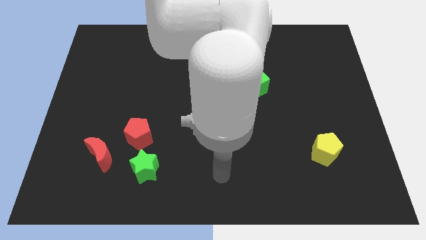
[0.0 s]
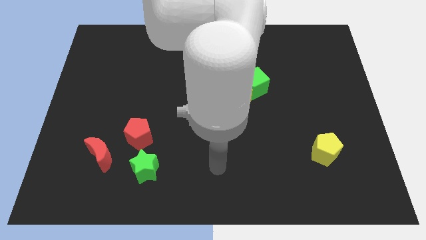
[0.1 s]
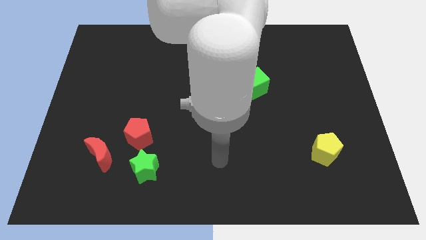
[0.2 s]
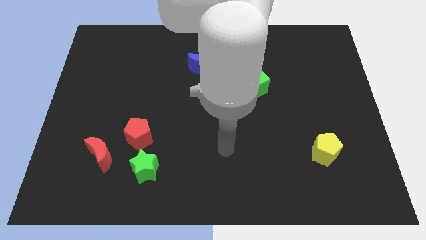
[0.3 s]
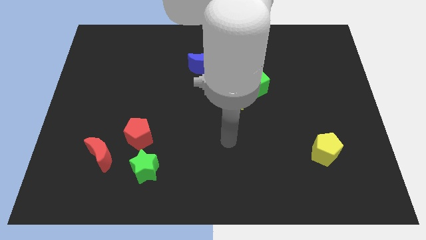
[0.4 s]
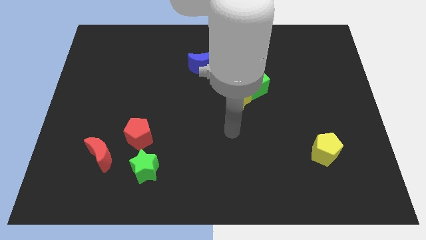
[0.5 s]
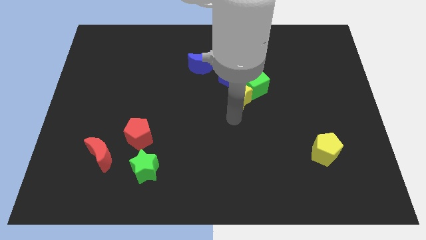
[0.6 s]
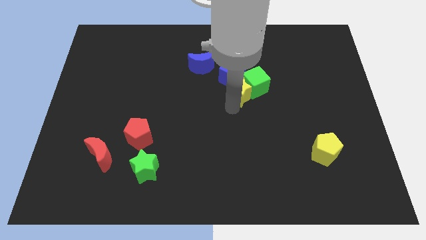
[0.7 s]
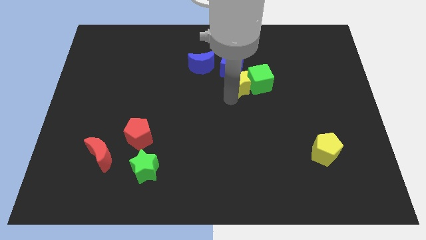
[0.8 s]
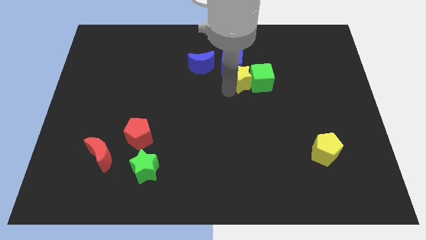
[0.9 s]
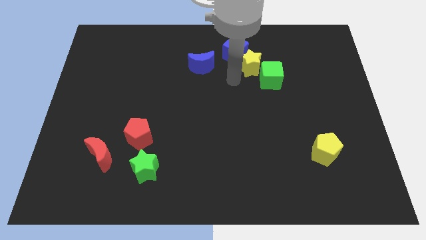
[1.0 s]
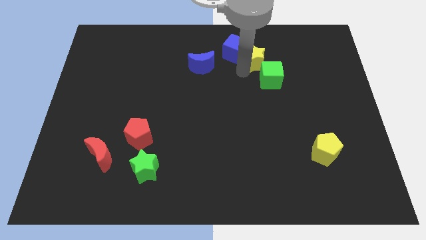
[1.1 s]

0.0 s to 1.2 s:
move the green cube away from the yellow star and blue cube

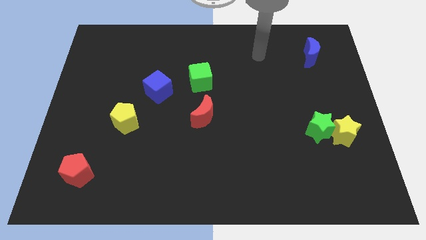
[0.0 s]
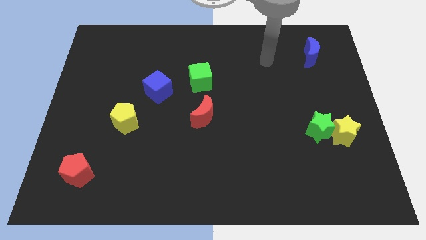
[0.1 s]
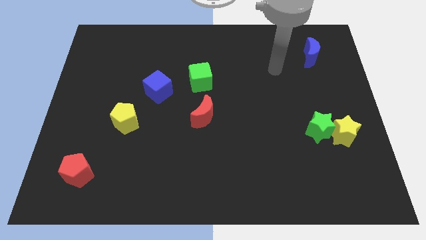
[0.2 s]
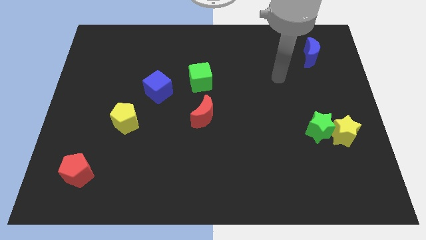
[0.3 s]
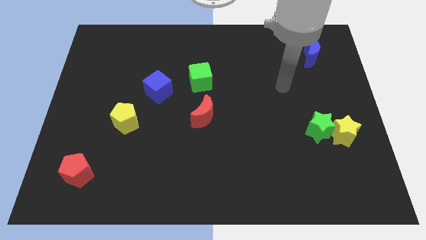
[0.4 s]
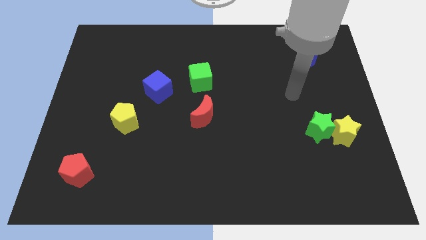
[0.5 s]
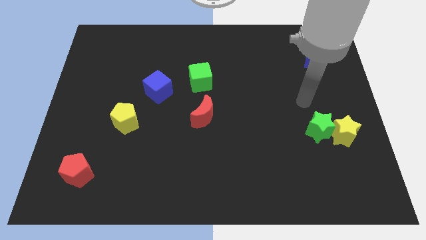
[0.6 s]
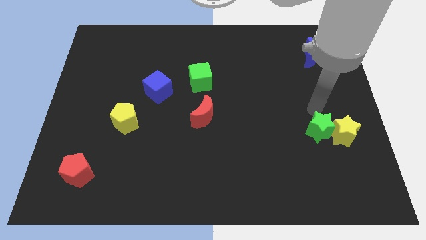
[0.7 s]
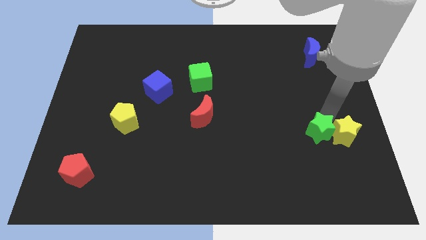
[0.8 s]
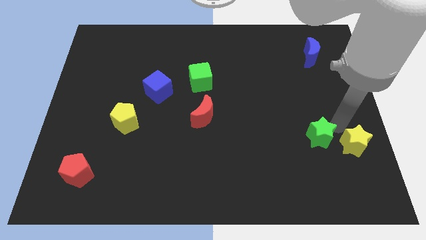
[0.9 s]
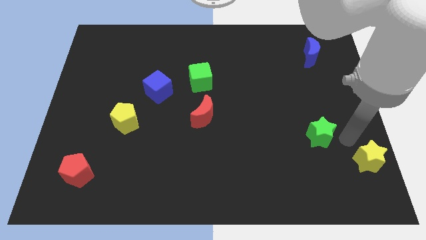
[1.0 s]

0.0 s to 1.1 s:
separate the green star from the yellow star

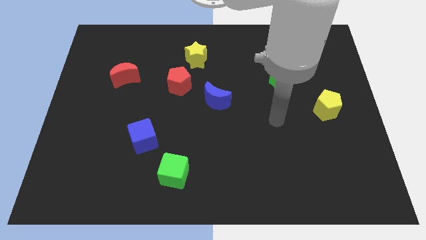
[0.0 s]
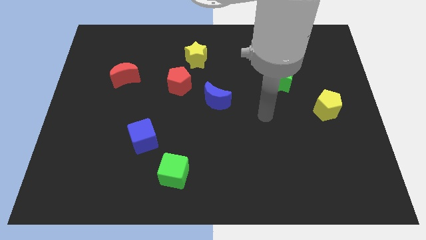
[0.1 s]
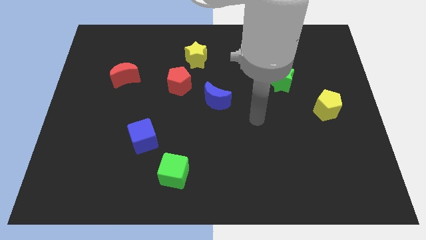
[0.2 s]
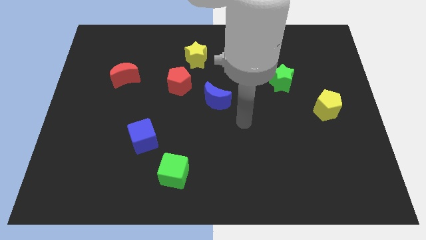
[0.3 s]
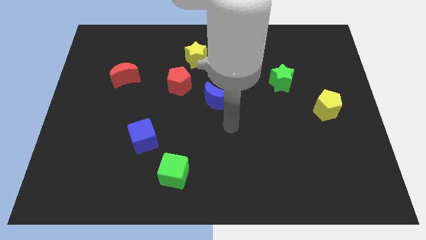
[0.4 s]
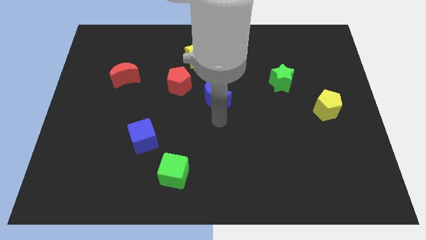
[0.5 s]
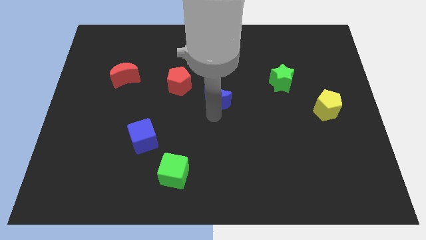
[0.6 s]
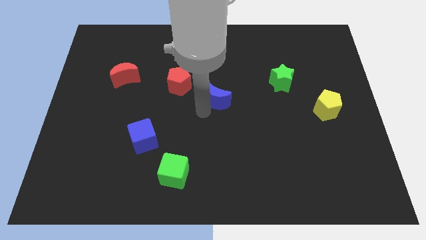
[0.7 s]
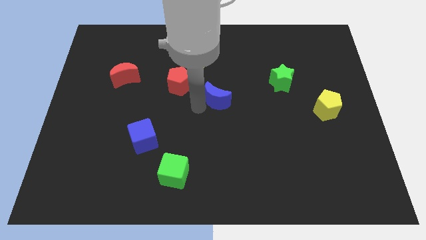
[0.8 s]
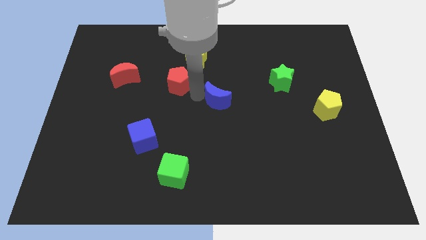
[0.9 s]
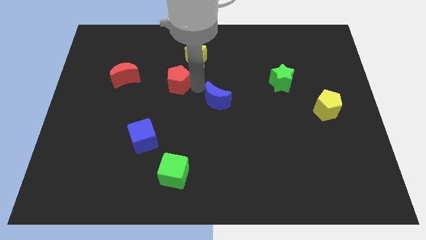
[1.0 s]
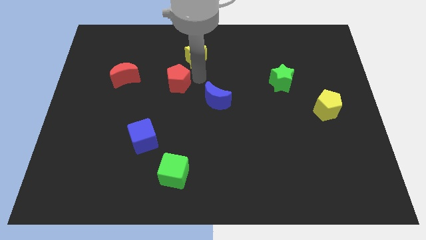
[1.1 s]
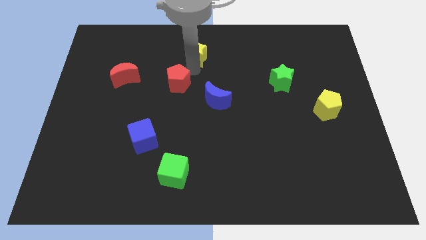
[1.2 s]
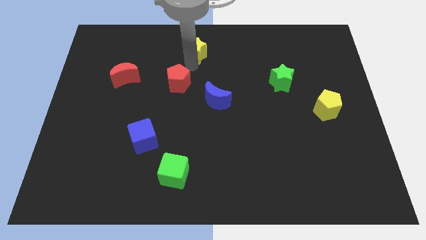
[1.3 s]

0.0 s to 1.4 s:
pull the red pentagon apart from the yellow star

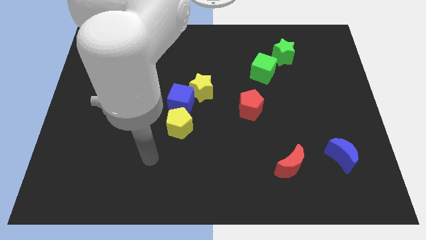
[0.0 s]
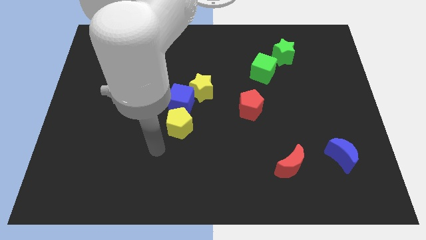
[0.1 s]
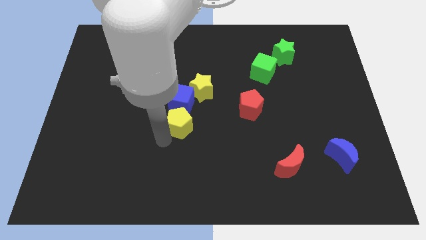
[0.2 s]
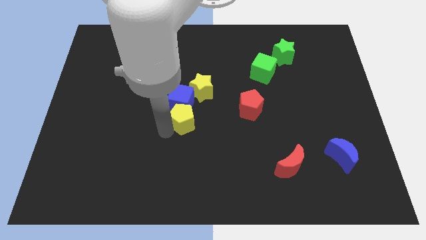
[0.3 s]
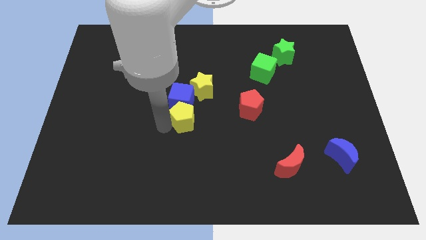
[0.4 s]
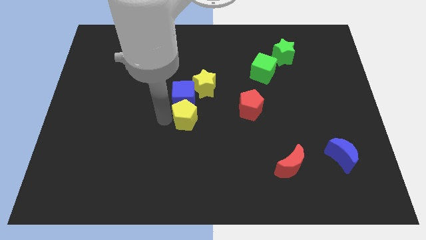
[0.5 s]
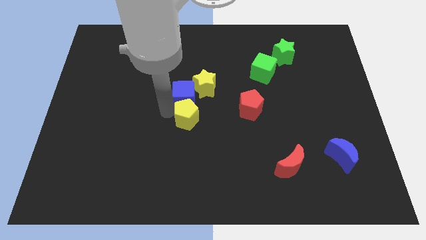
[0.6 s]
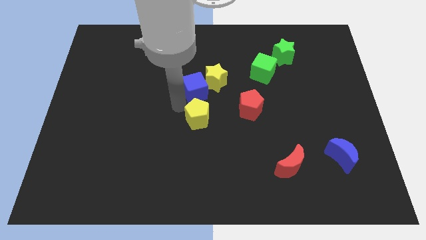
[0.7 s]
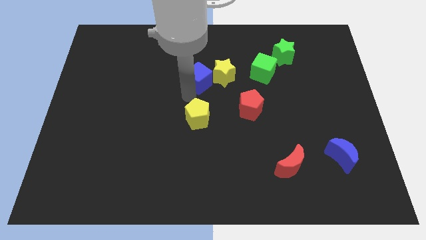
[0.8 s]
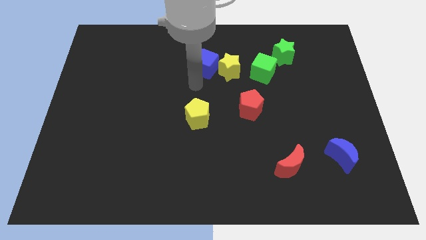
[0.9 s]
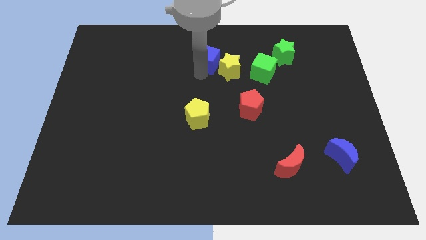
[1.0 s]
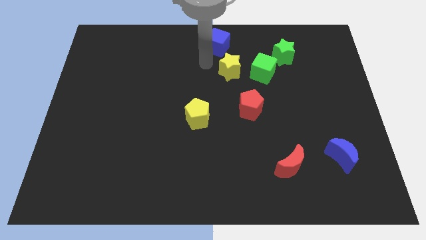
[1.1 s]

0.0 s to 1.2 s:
pull the yellow star apart from the blue cube

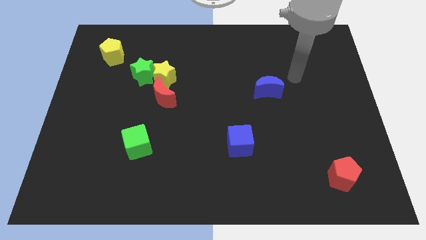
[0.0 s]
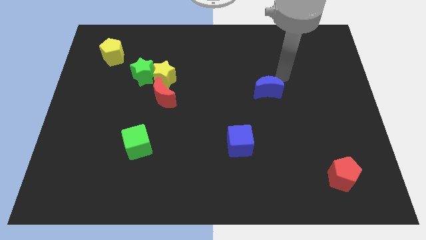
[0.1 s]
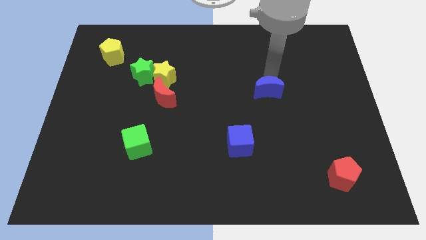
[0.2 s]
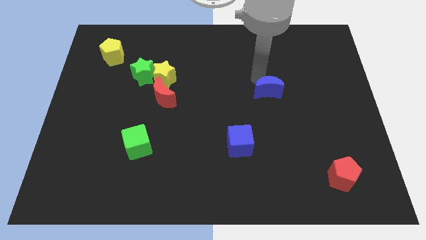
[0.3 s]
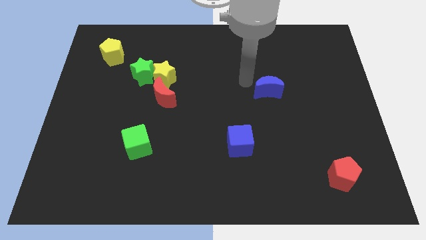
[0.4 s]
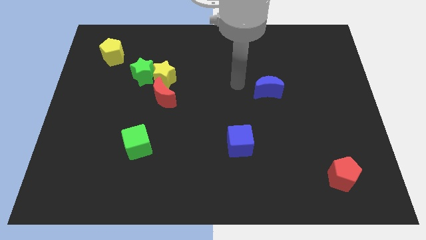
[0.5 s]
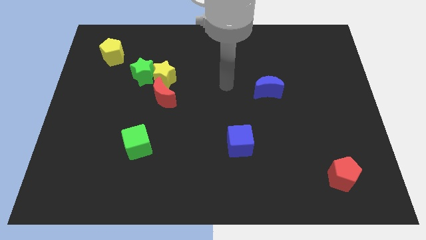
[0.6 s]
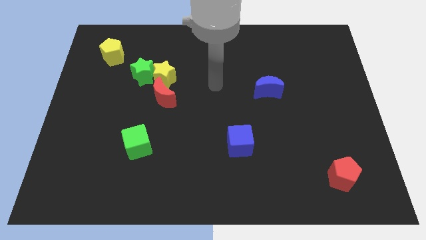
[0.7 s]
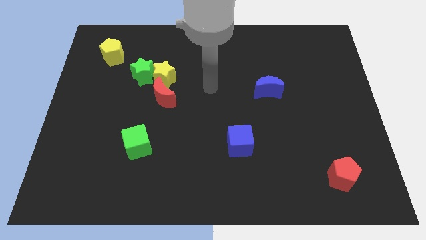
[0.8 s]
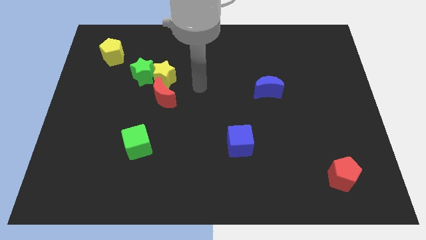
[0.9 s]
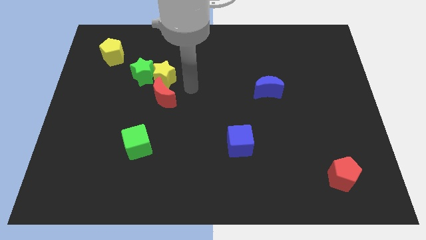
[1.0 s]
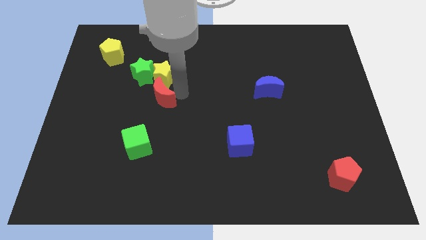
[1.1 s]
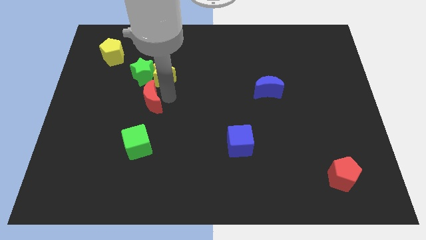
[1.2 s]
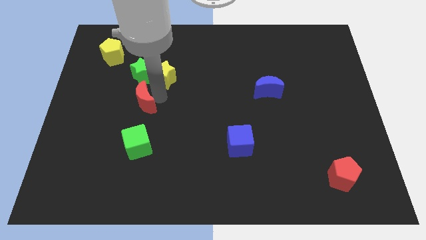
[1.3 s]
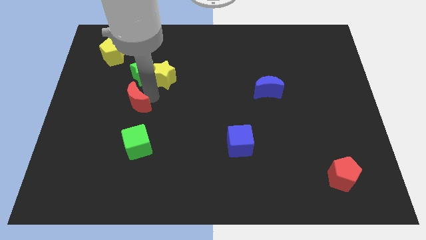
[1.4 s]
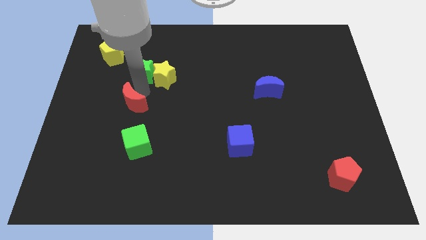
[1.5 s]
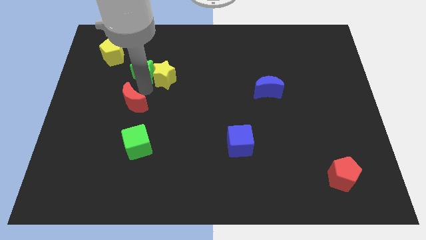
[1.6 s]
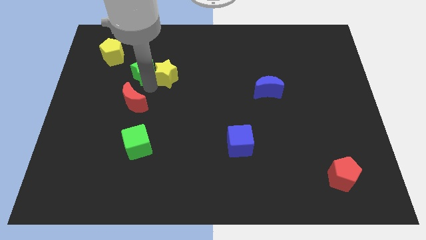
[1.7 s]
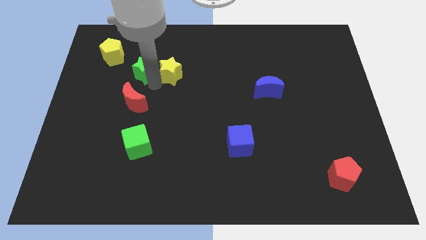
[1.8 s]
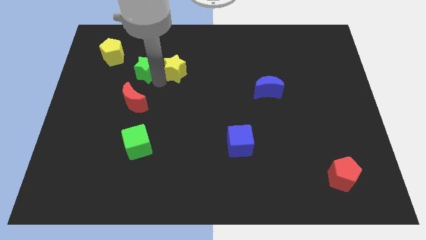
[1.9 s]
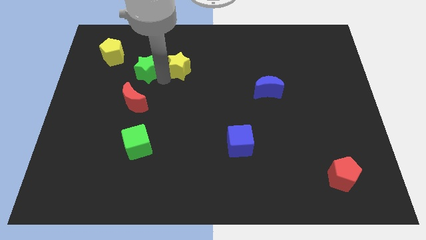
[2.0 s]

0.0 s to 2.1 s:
pull the yellow star apart from the green star and red moon

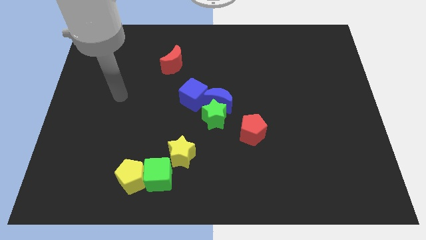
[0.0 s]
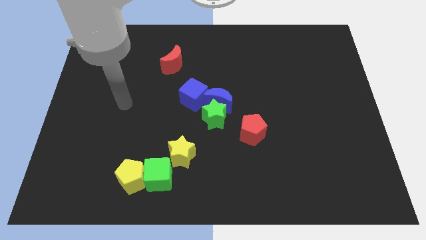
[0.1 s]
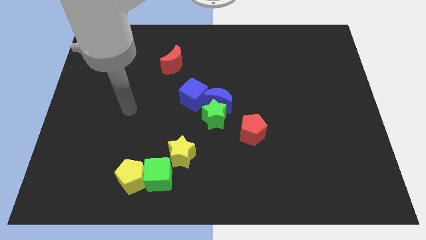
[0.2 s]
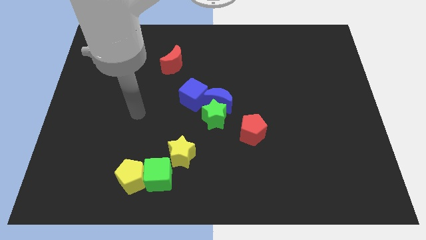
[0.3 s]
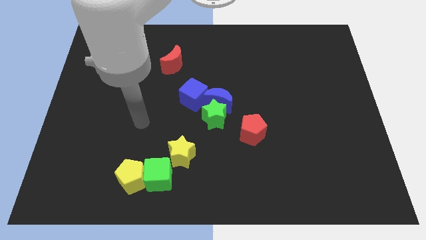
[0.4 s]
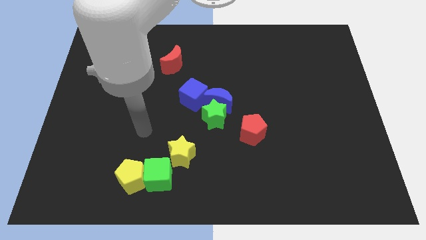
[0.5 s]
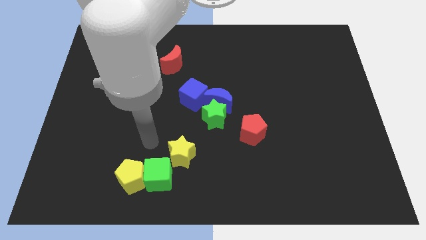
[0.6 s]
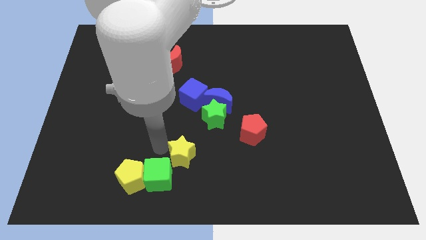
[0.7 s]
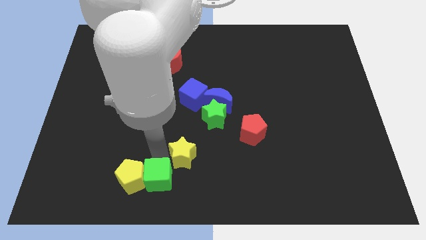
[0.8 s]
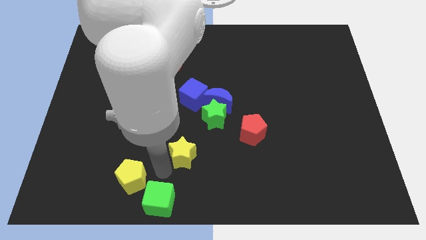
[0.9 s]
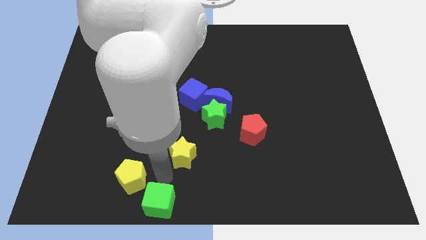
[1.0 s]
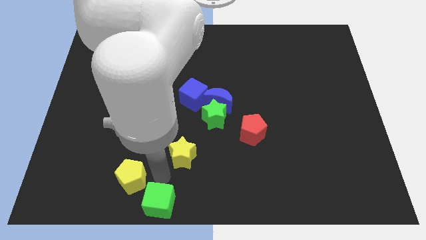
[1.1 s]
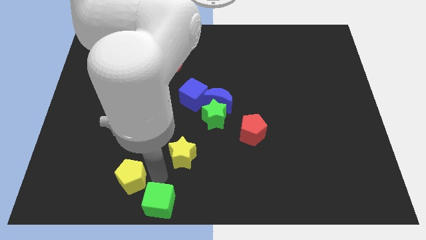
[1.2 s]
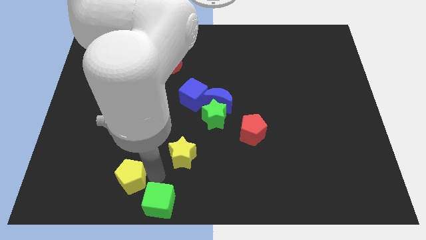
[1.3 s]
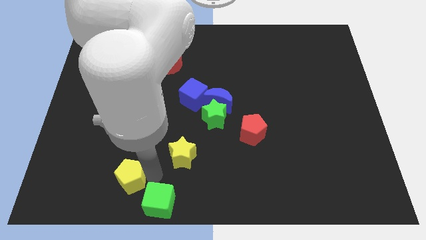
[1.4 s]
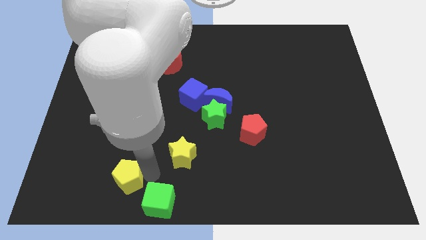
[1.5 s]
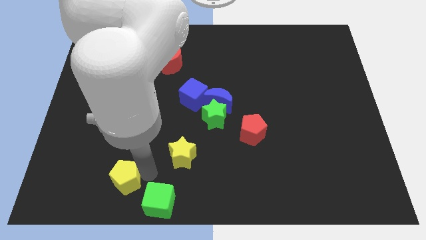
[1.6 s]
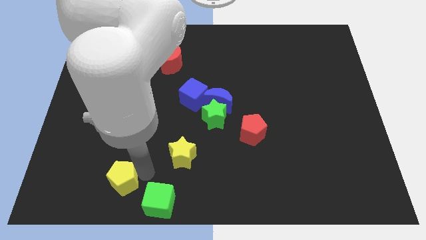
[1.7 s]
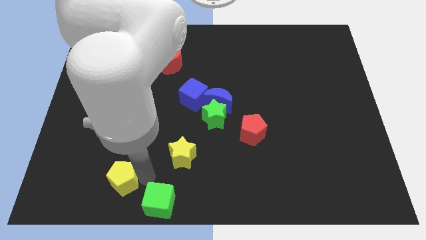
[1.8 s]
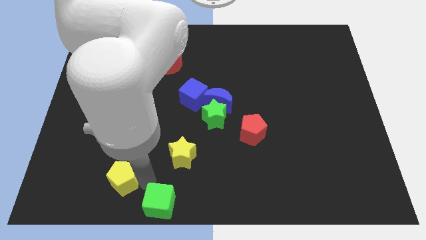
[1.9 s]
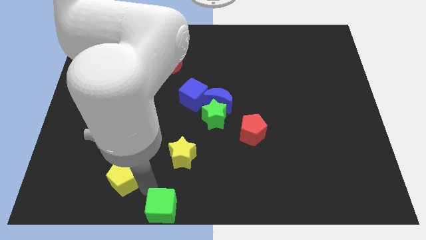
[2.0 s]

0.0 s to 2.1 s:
pull the yellow pentagon apart from the green cube

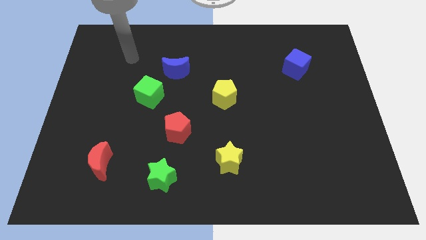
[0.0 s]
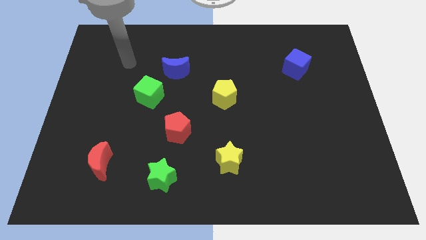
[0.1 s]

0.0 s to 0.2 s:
separate the blue moon from the green cube

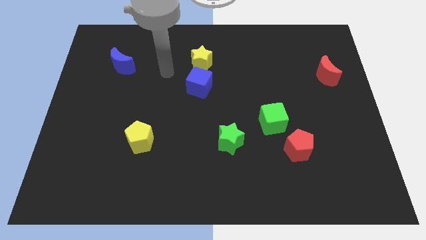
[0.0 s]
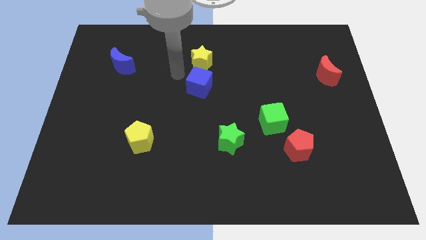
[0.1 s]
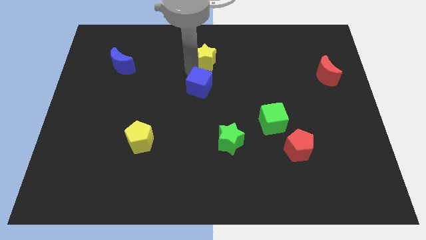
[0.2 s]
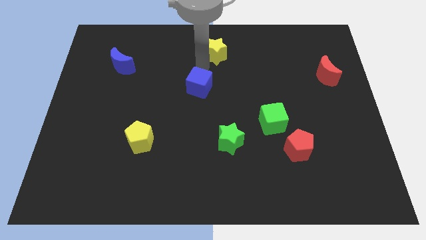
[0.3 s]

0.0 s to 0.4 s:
separate the blue cube from the yellow star
